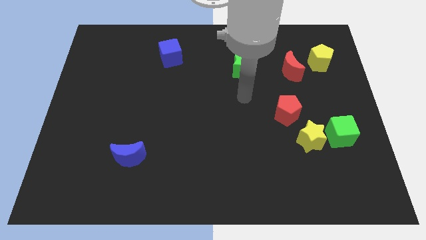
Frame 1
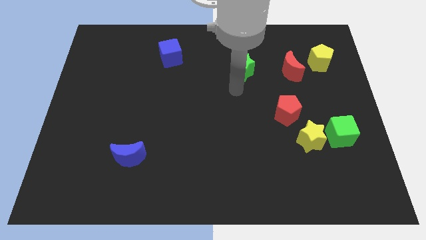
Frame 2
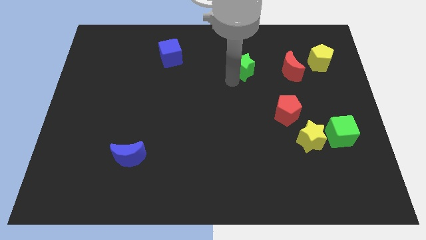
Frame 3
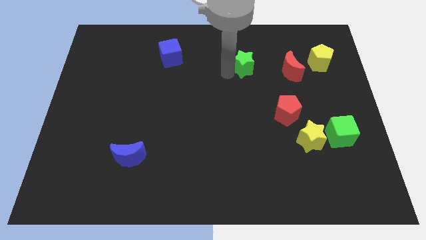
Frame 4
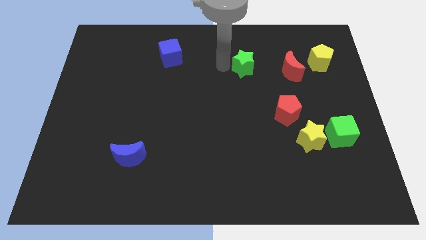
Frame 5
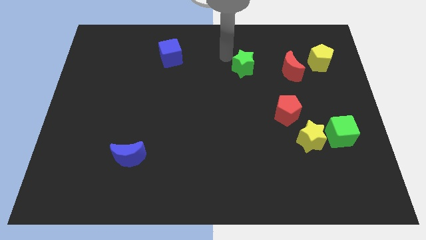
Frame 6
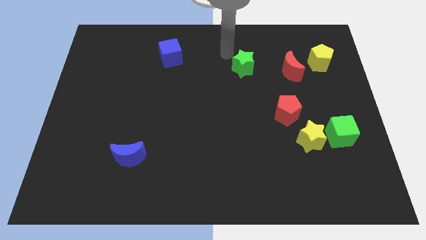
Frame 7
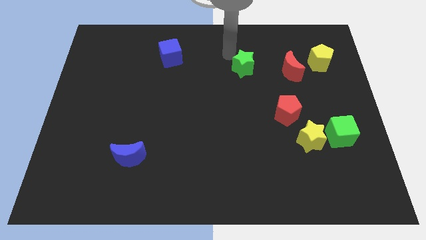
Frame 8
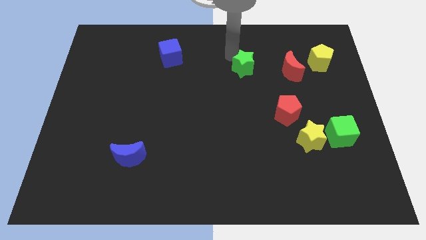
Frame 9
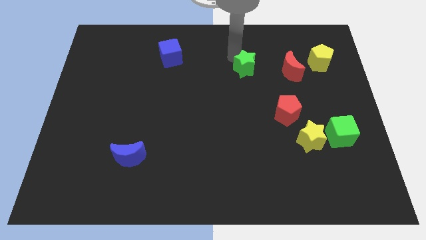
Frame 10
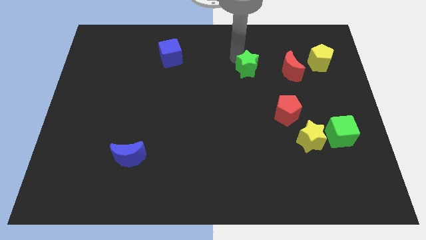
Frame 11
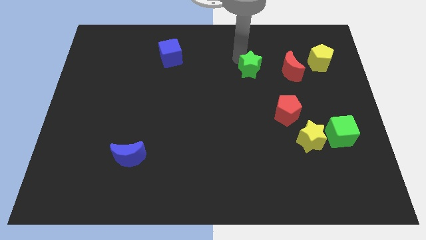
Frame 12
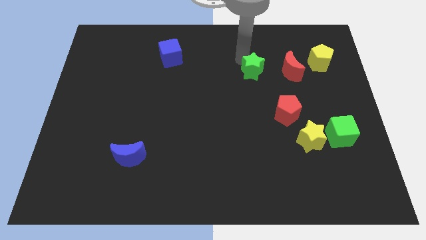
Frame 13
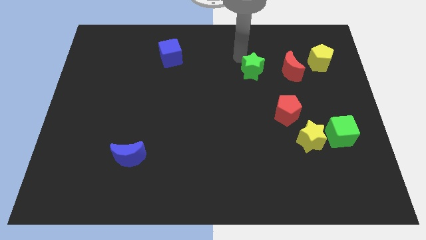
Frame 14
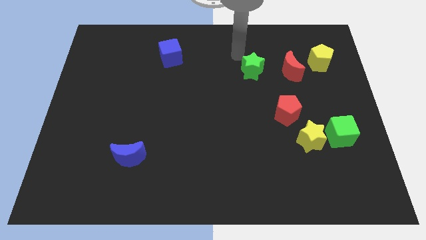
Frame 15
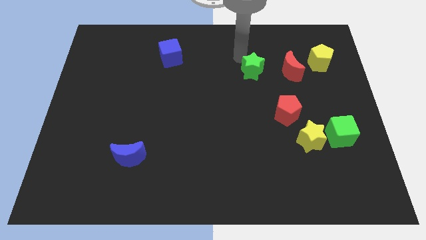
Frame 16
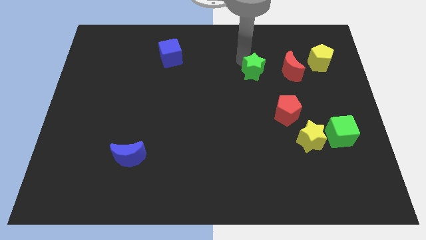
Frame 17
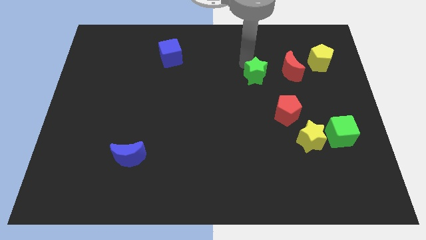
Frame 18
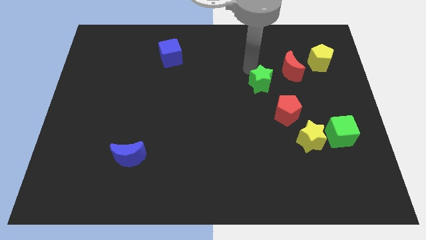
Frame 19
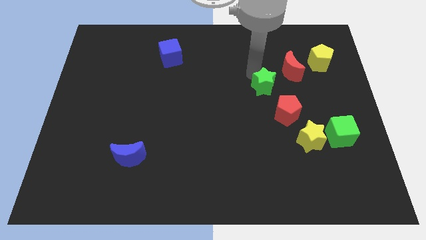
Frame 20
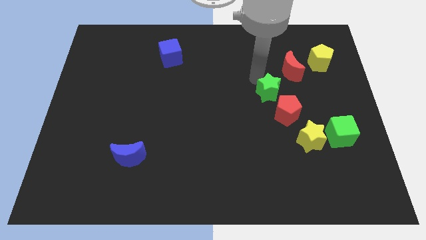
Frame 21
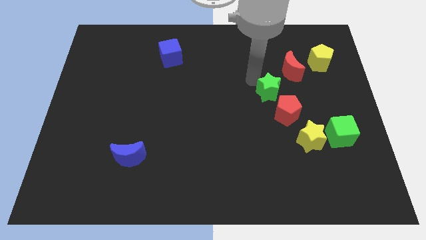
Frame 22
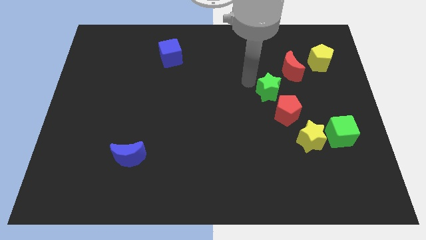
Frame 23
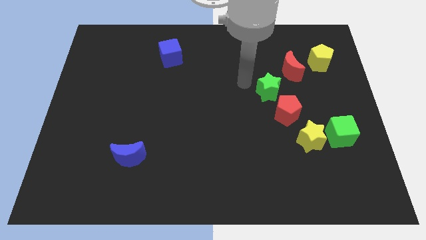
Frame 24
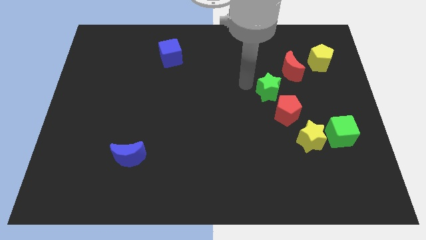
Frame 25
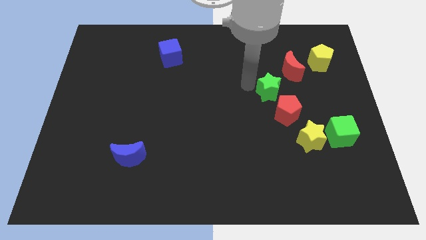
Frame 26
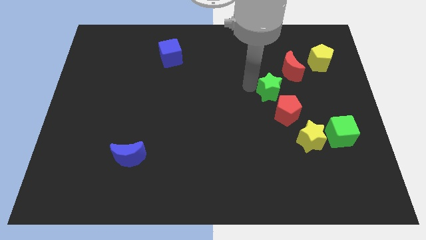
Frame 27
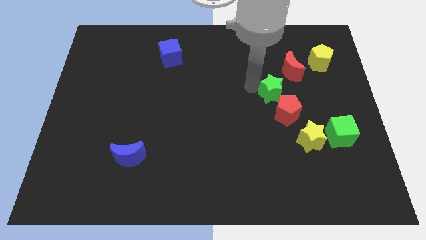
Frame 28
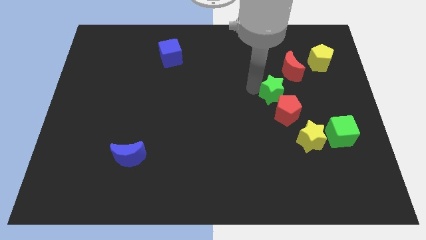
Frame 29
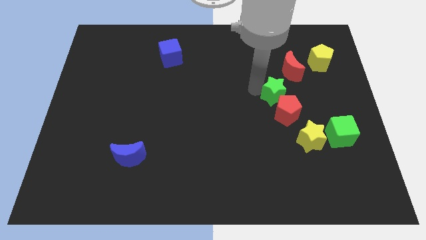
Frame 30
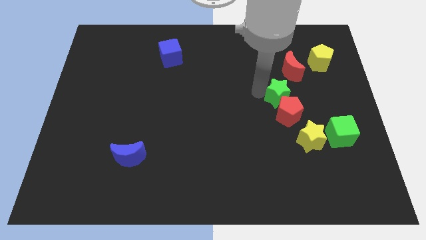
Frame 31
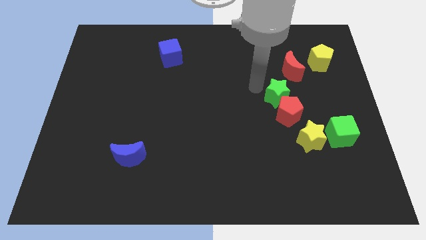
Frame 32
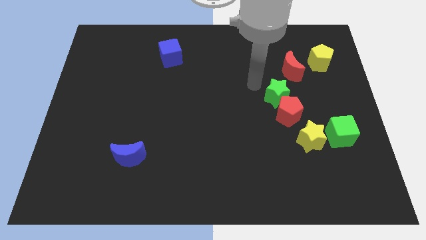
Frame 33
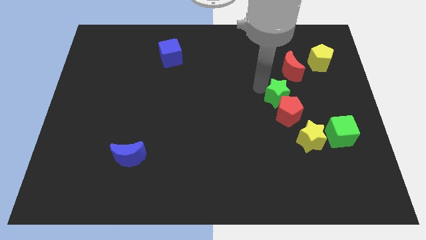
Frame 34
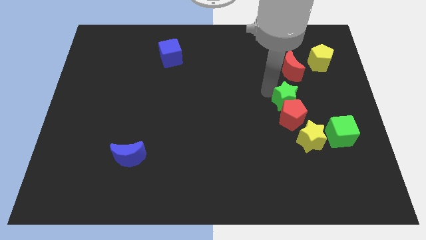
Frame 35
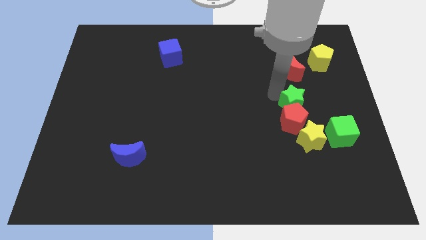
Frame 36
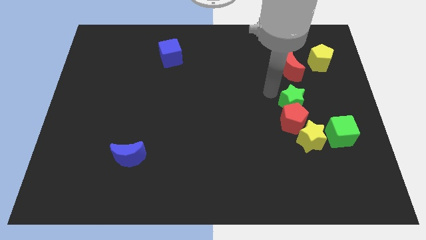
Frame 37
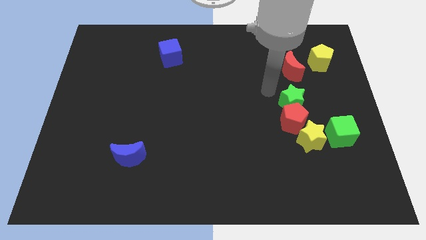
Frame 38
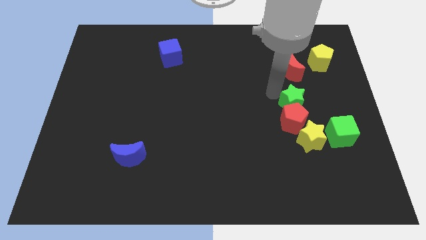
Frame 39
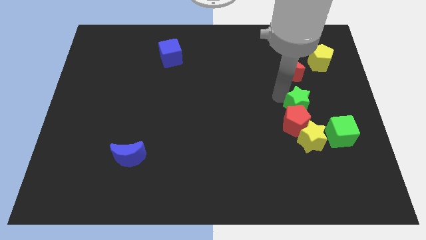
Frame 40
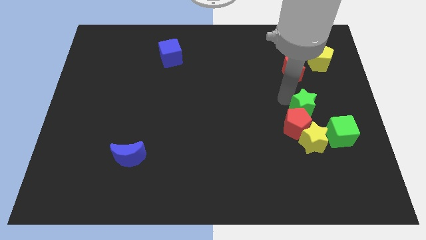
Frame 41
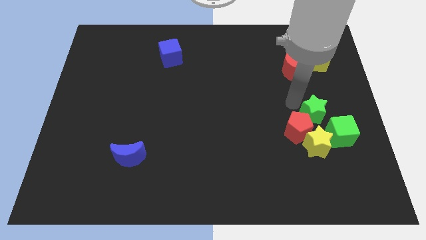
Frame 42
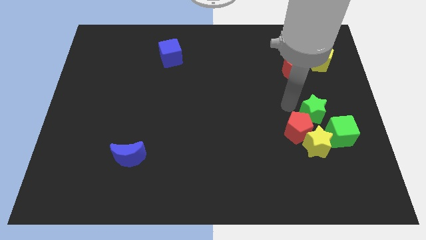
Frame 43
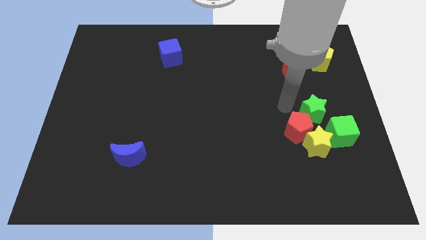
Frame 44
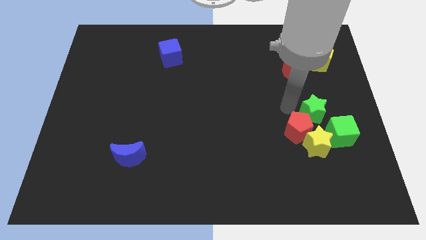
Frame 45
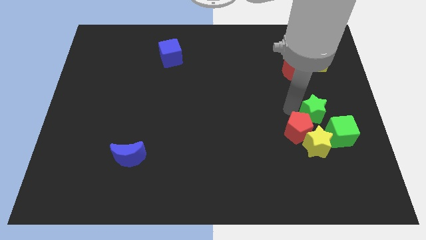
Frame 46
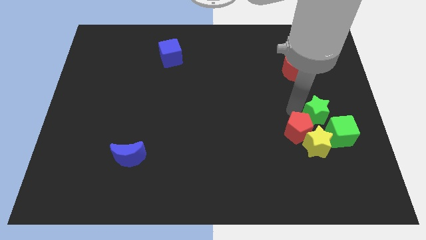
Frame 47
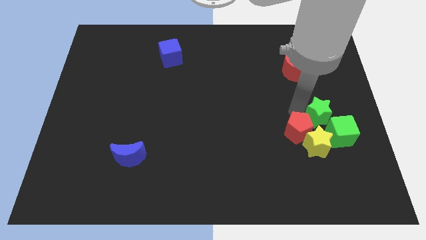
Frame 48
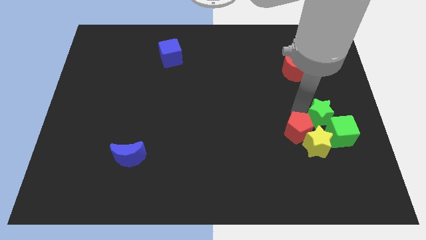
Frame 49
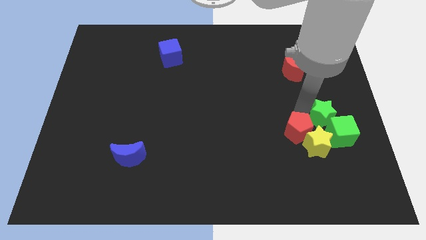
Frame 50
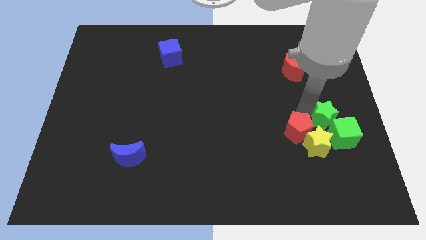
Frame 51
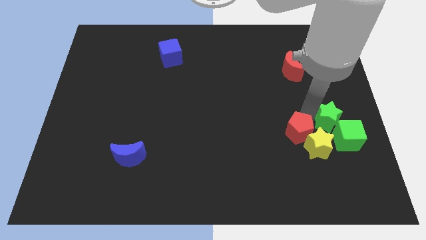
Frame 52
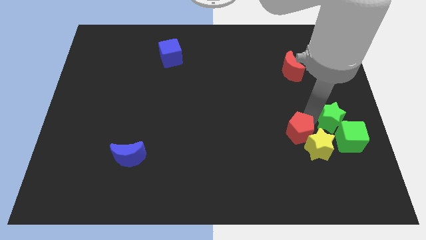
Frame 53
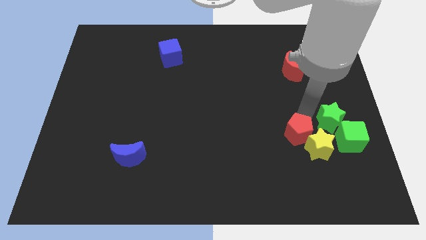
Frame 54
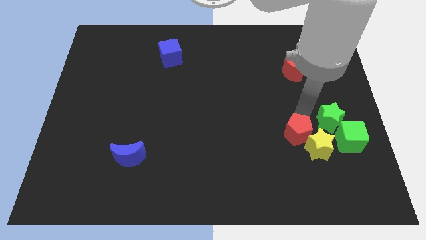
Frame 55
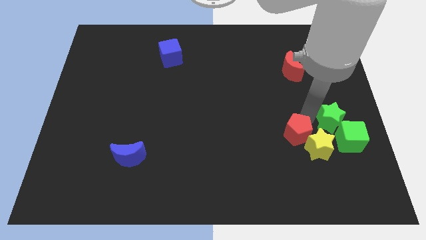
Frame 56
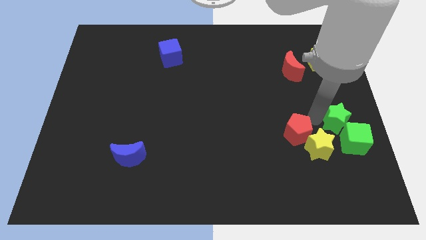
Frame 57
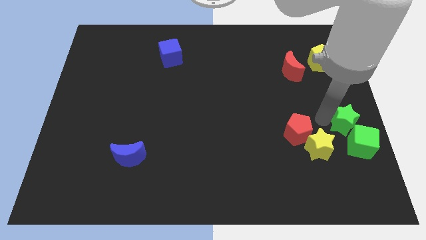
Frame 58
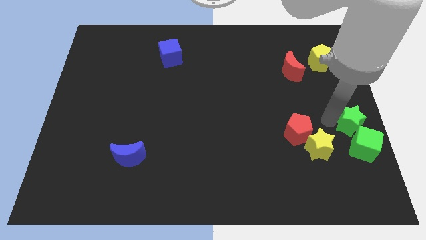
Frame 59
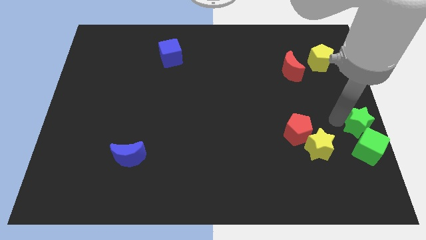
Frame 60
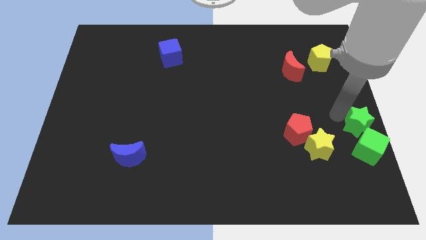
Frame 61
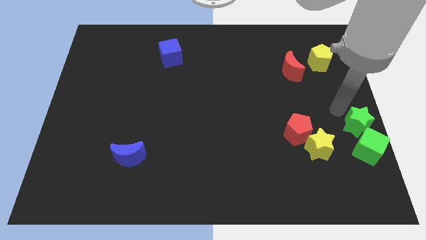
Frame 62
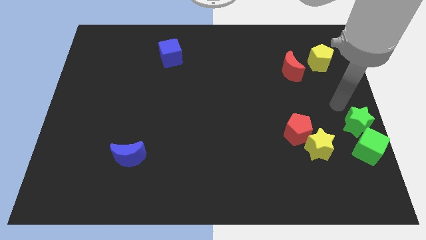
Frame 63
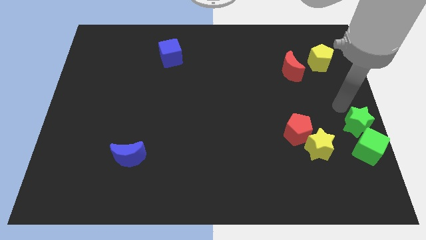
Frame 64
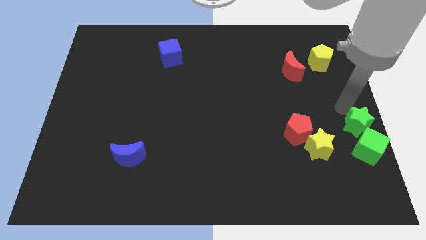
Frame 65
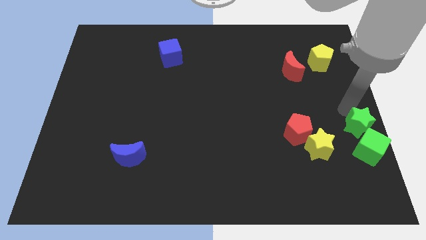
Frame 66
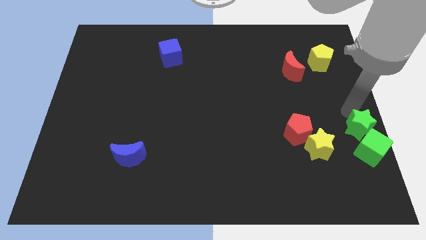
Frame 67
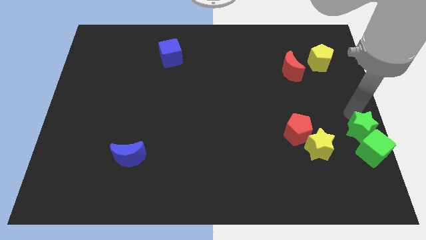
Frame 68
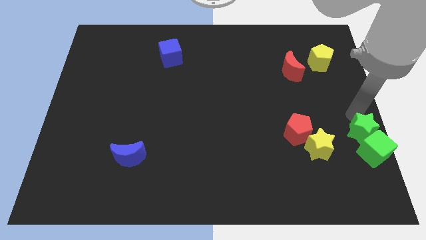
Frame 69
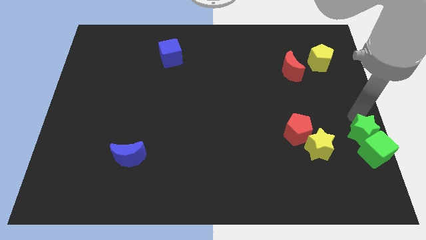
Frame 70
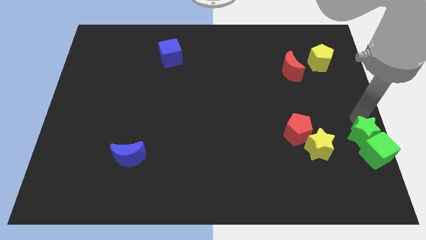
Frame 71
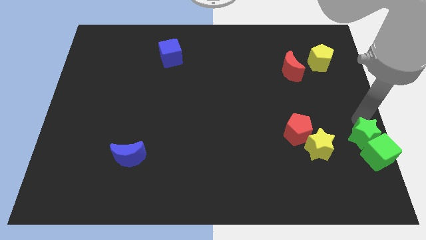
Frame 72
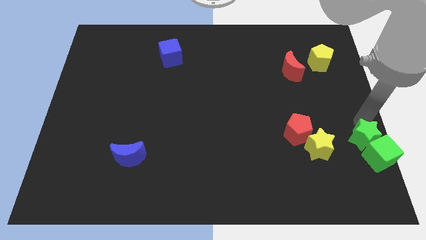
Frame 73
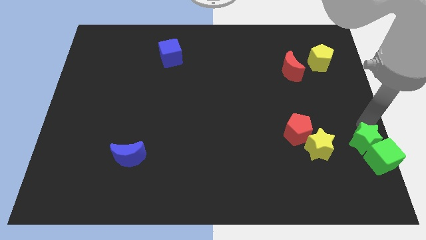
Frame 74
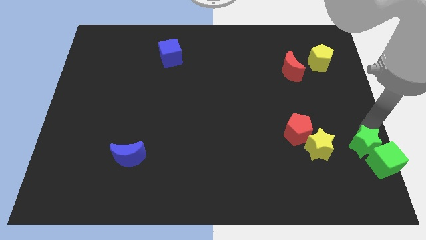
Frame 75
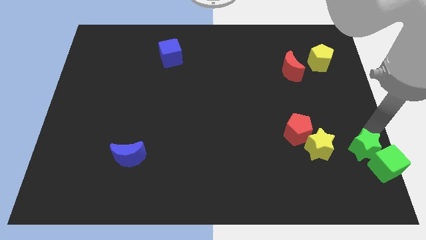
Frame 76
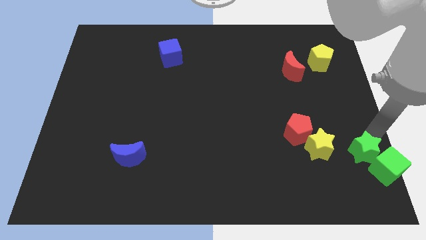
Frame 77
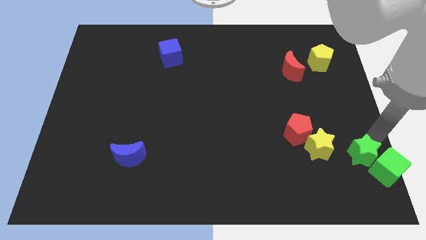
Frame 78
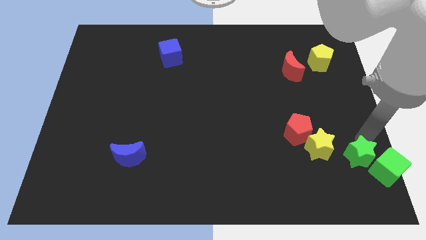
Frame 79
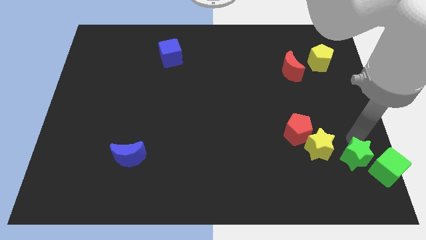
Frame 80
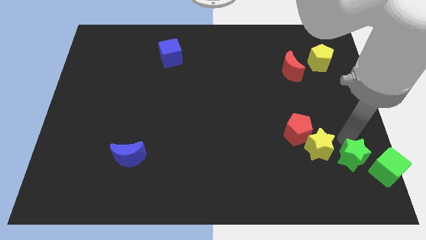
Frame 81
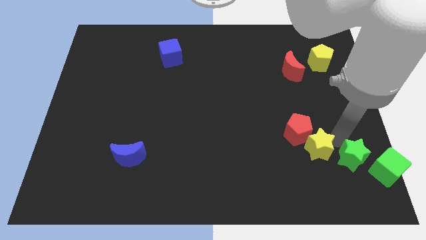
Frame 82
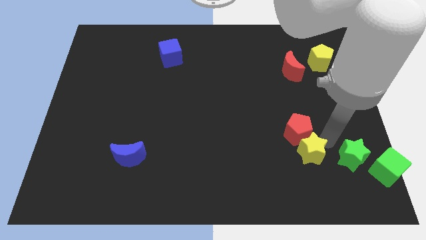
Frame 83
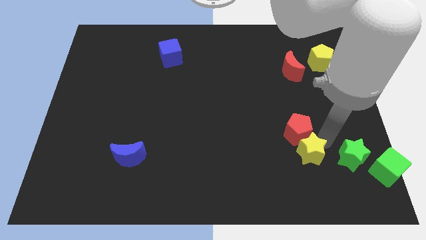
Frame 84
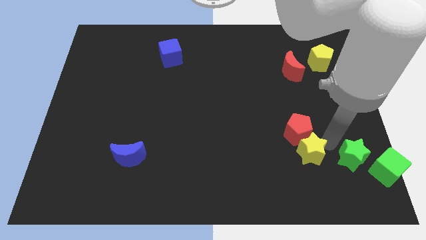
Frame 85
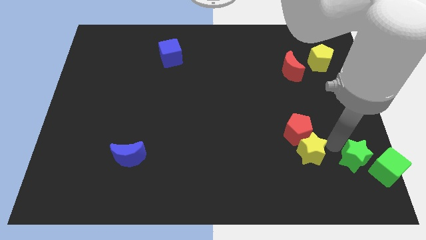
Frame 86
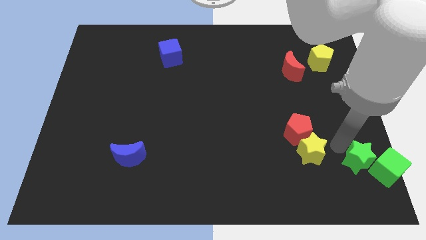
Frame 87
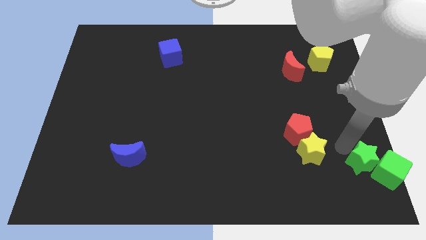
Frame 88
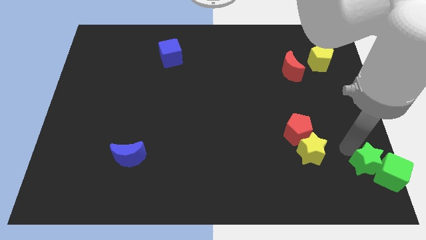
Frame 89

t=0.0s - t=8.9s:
slide the green star to the bottom right corner
